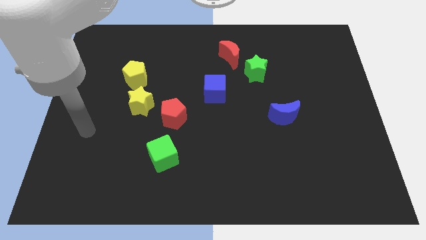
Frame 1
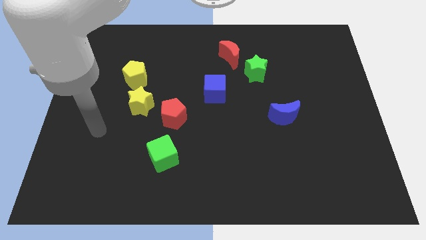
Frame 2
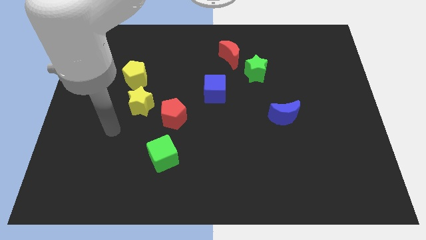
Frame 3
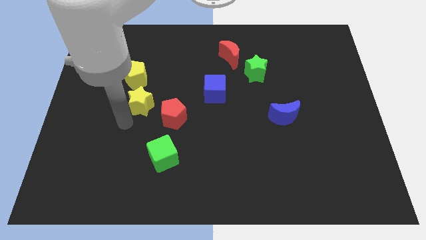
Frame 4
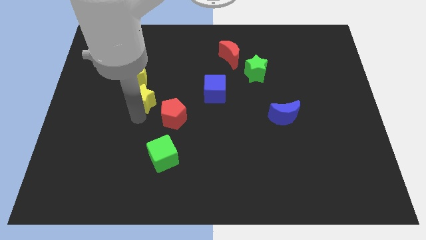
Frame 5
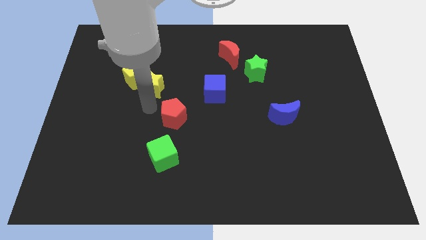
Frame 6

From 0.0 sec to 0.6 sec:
move the red pentagon away from the yellow star

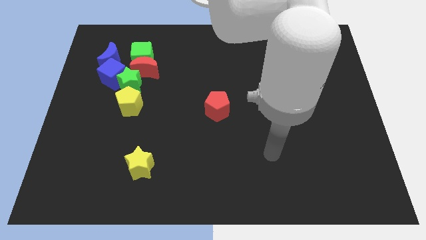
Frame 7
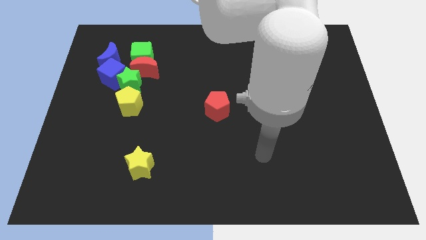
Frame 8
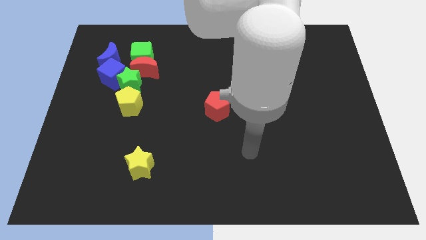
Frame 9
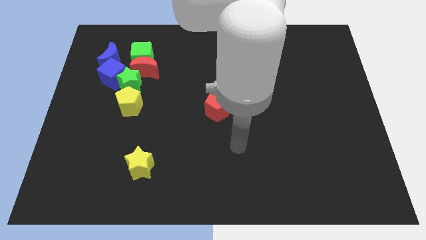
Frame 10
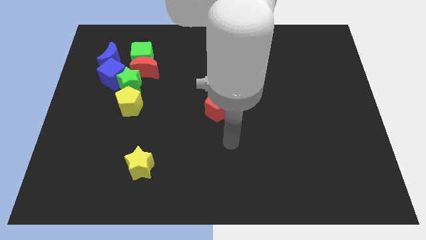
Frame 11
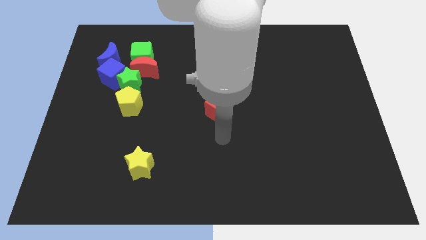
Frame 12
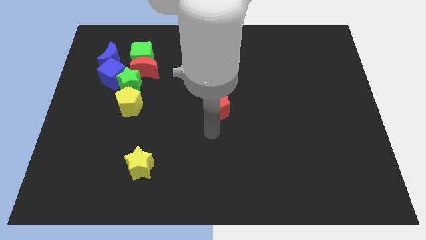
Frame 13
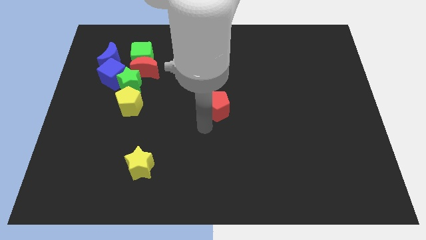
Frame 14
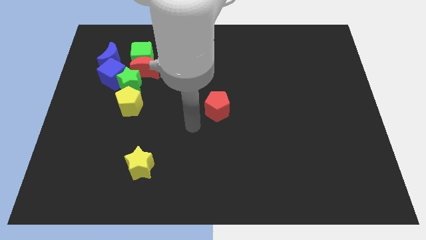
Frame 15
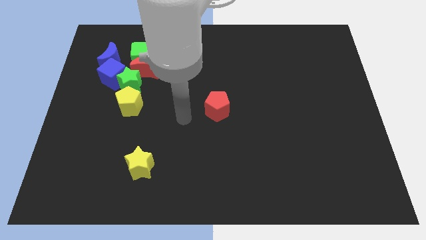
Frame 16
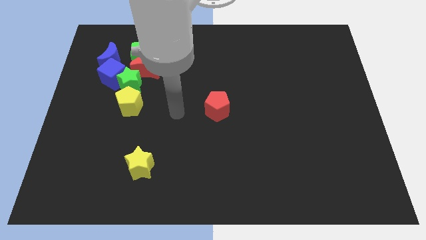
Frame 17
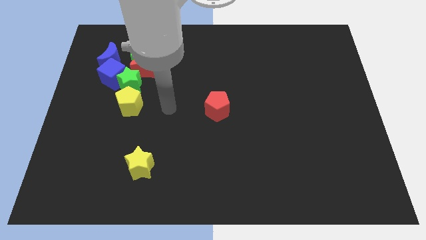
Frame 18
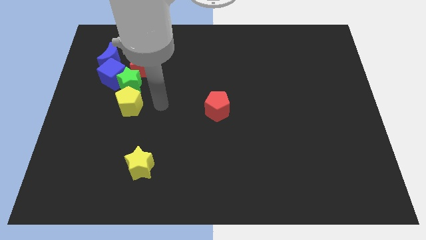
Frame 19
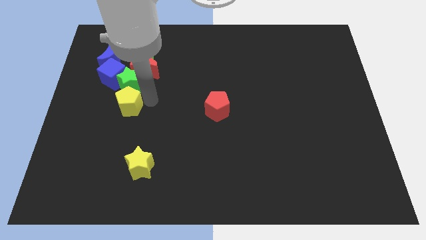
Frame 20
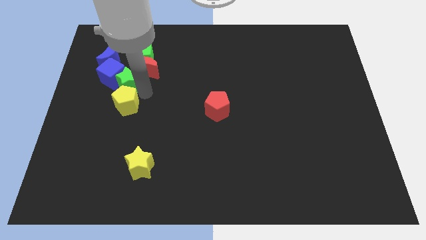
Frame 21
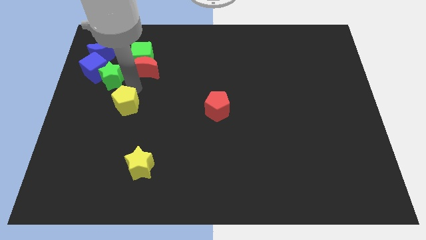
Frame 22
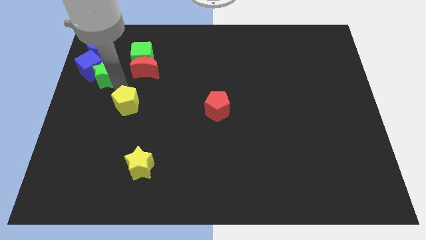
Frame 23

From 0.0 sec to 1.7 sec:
separate the yellow pentagon from the green star

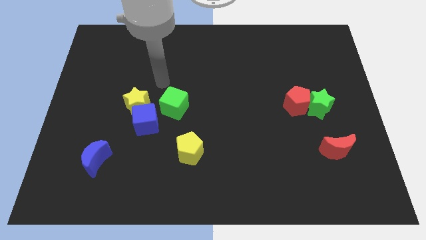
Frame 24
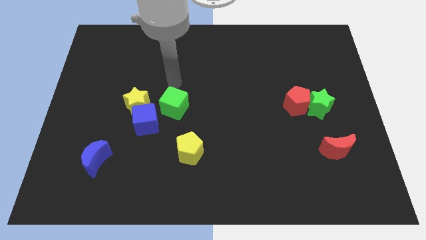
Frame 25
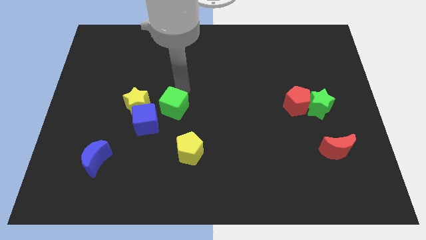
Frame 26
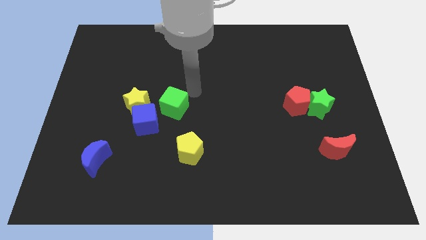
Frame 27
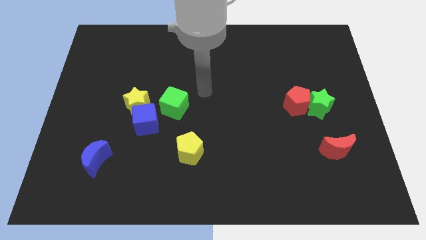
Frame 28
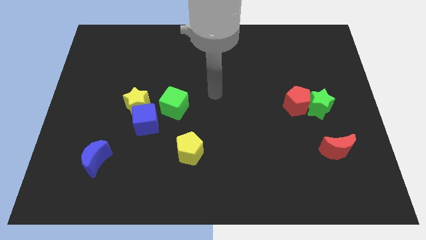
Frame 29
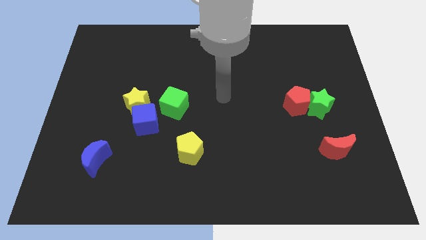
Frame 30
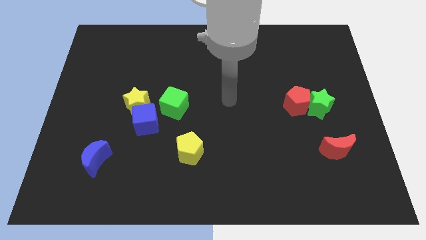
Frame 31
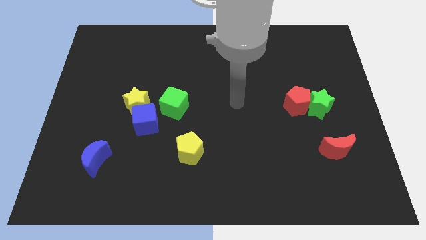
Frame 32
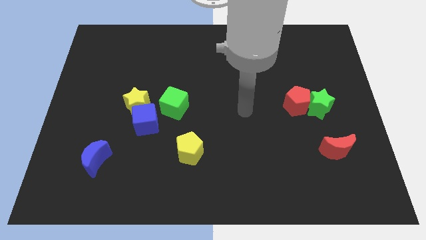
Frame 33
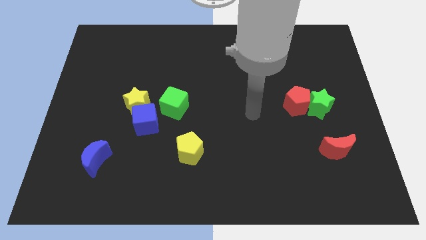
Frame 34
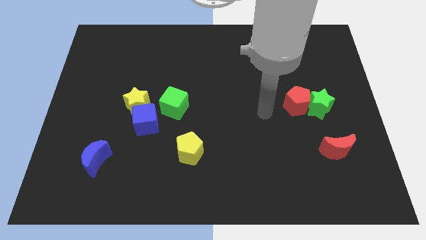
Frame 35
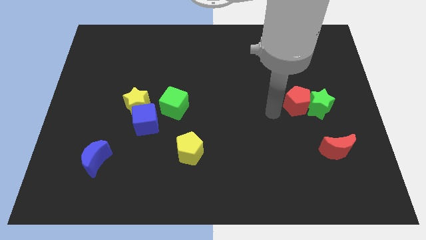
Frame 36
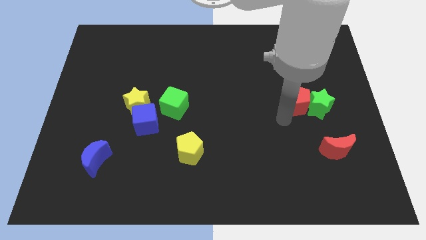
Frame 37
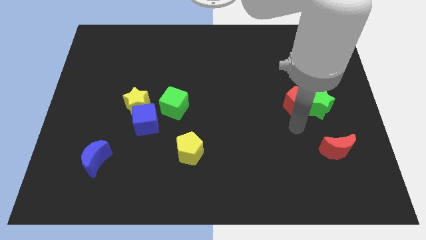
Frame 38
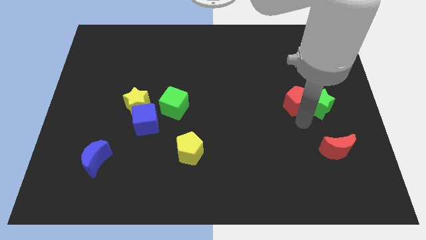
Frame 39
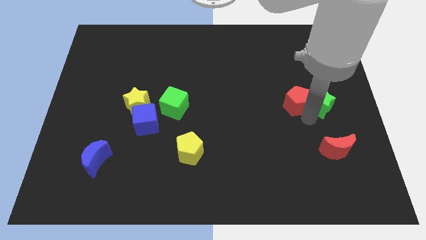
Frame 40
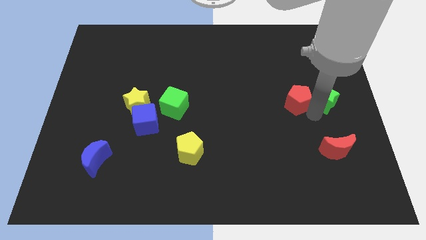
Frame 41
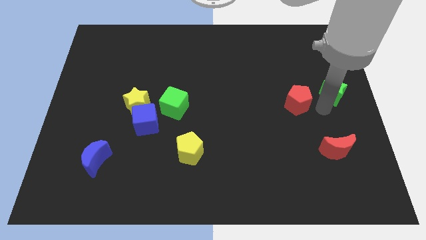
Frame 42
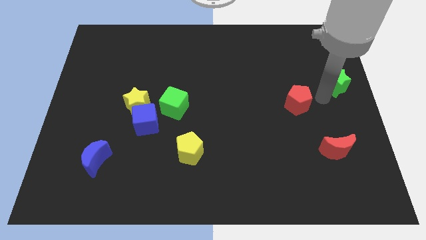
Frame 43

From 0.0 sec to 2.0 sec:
separate the red pentagon from the green star

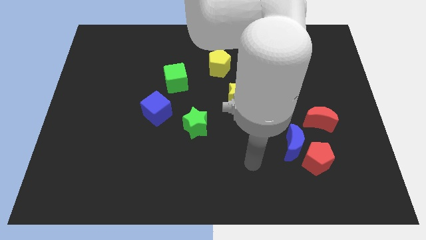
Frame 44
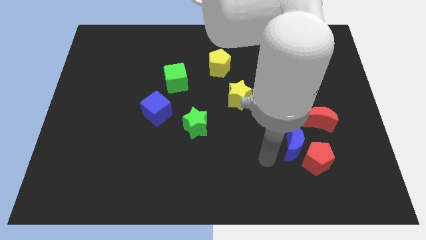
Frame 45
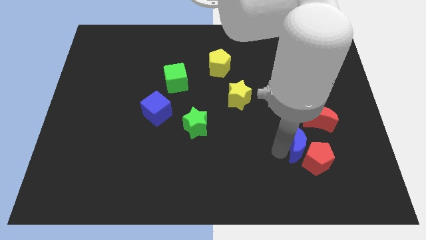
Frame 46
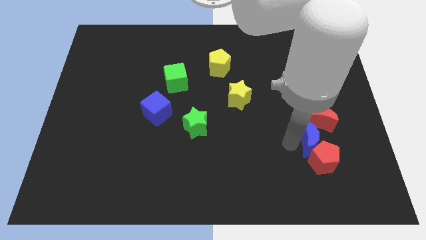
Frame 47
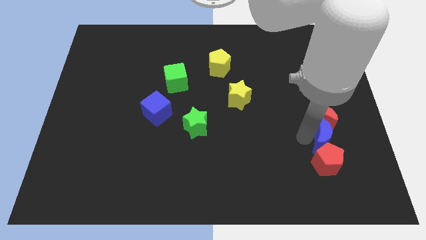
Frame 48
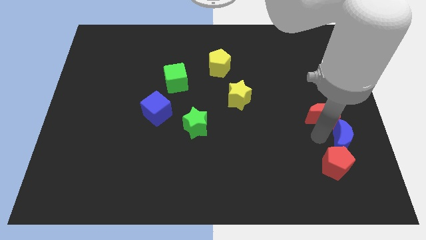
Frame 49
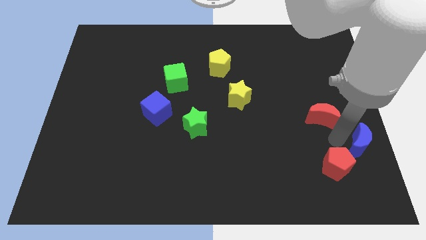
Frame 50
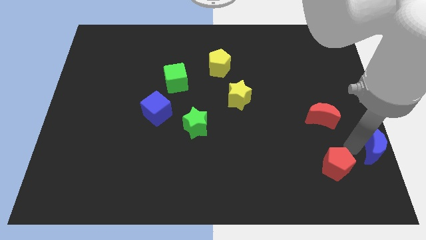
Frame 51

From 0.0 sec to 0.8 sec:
pull the red pentagon apart from the blue moon

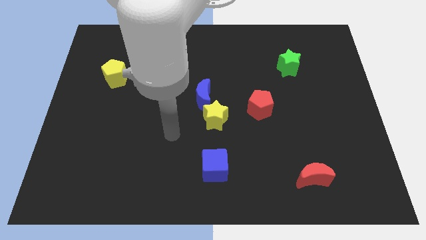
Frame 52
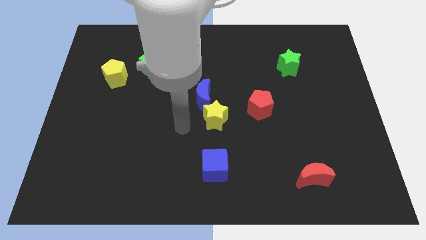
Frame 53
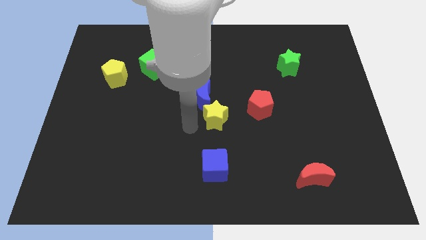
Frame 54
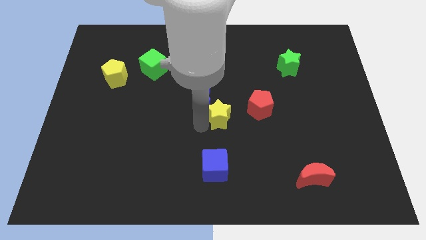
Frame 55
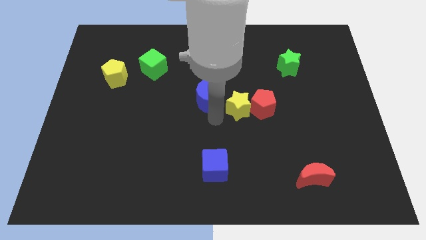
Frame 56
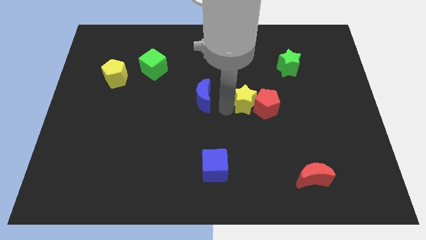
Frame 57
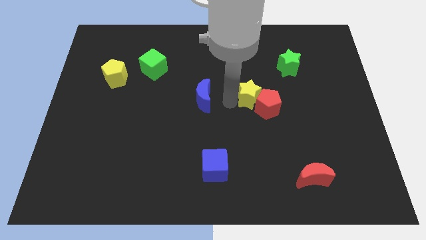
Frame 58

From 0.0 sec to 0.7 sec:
separate the blue moon from the yellow star

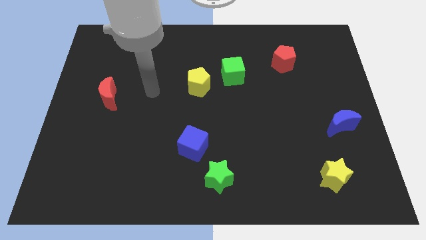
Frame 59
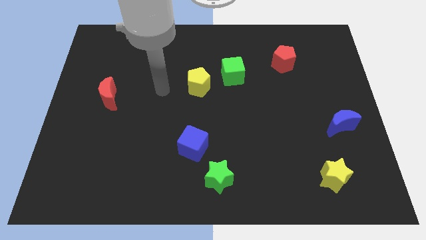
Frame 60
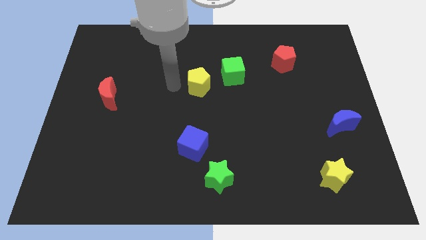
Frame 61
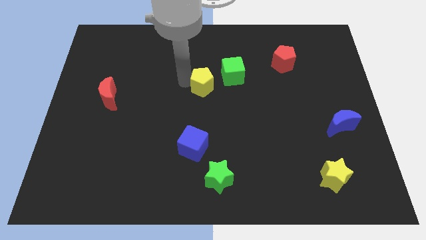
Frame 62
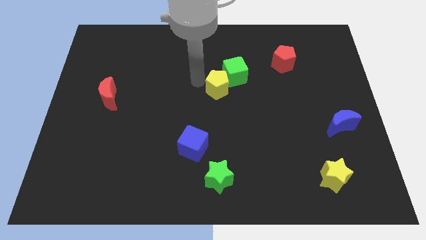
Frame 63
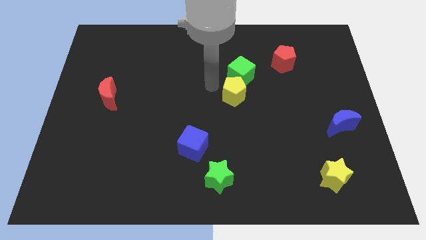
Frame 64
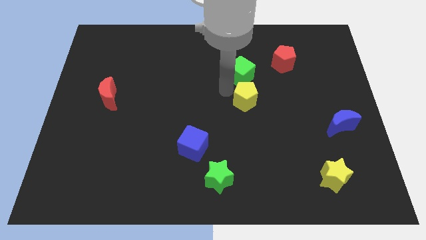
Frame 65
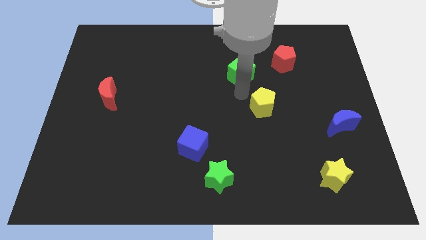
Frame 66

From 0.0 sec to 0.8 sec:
separate the green cube from the yellow pentagon

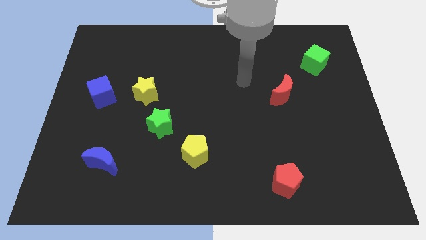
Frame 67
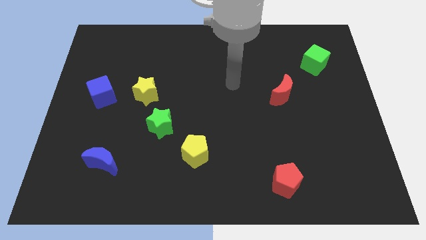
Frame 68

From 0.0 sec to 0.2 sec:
move the green star away from the yellow star

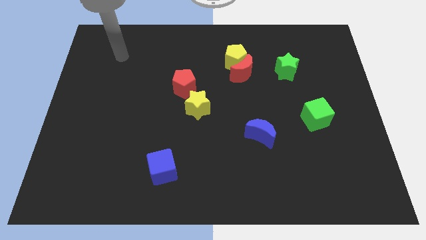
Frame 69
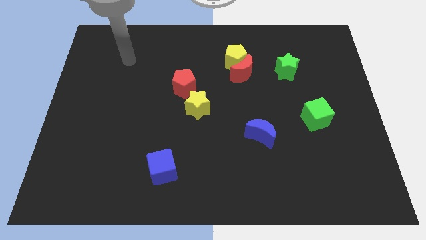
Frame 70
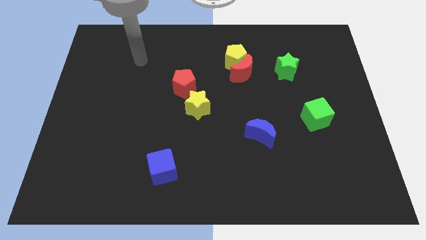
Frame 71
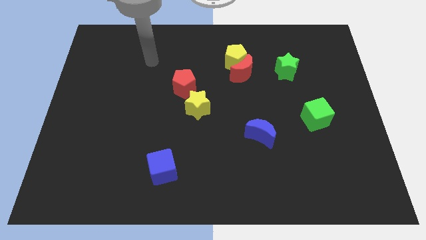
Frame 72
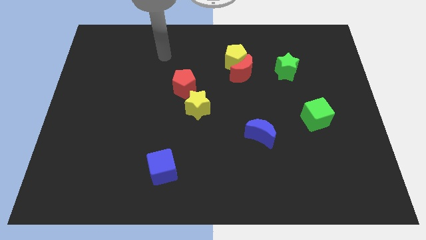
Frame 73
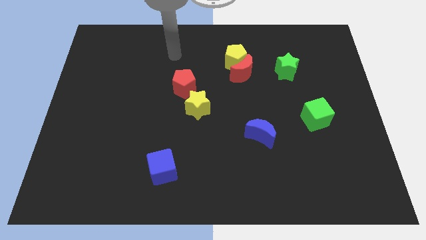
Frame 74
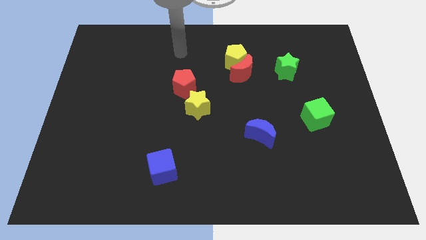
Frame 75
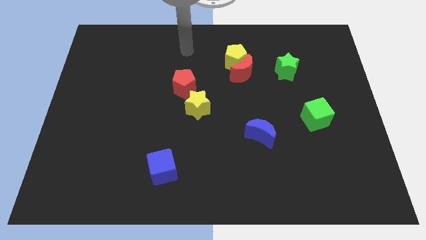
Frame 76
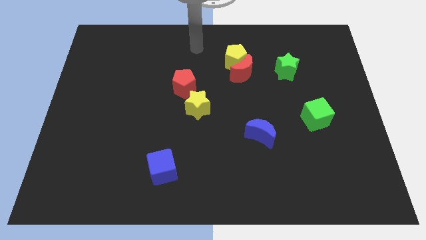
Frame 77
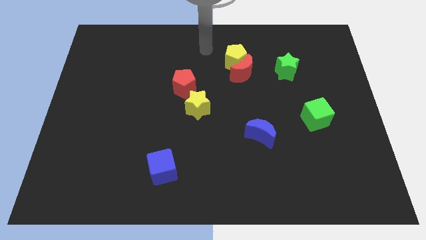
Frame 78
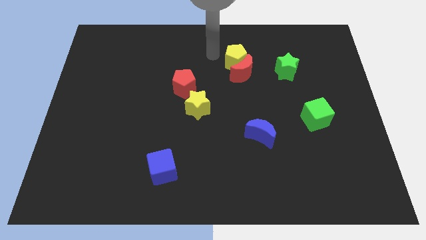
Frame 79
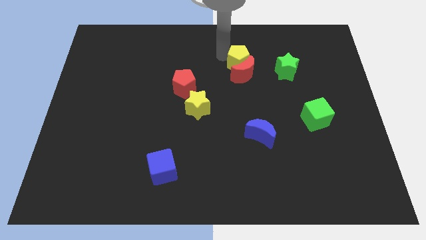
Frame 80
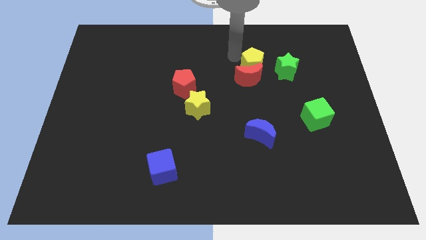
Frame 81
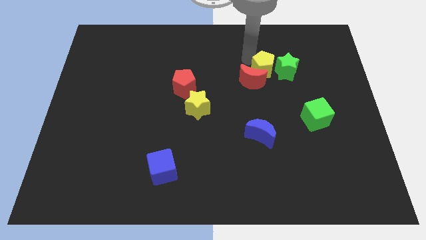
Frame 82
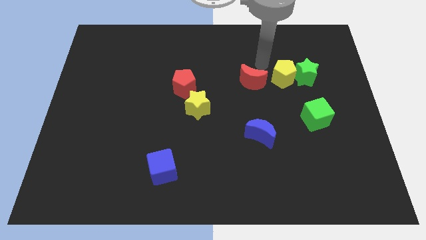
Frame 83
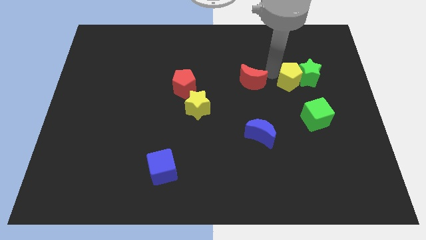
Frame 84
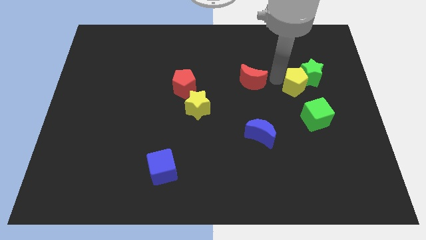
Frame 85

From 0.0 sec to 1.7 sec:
move the red moon away from the yellow pentagon

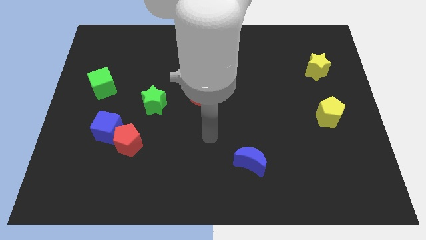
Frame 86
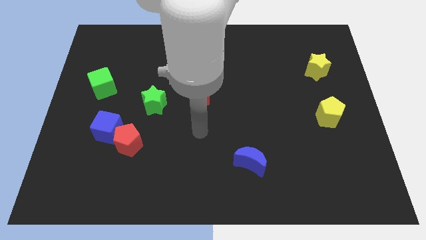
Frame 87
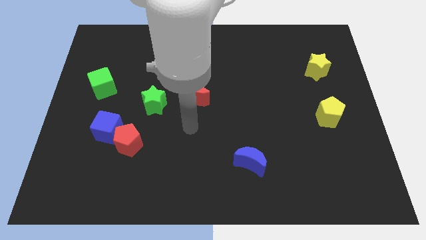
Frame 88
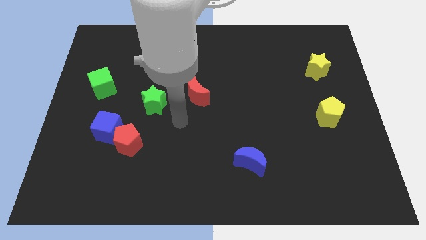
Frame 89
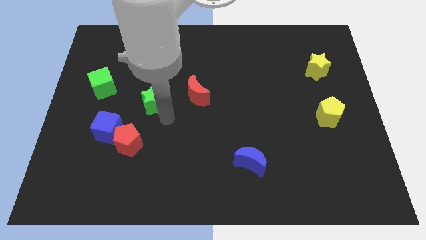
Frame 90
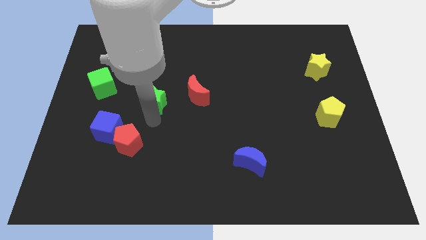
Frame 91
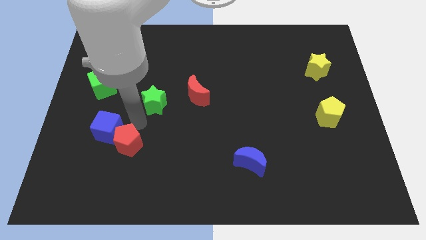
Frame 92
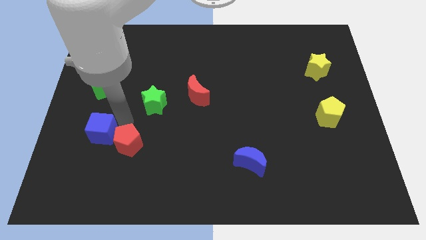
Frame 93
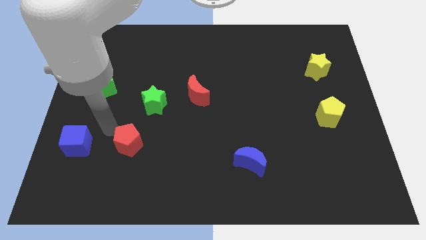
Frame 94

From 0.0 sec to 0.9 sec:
move the red pentagon away from the blue cube
